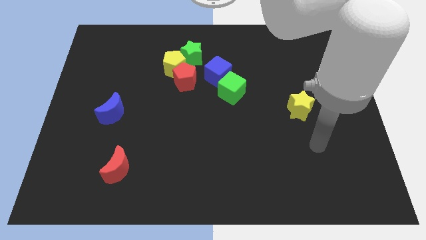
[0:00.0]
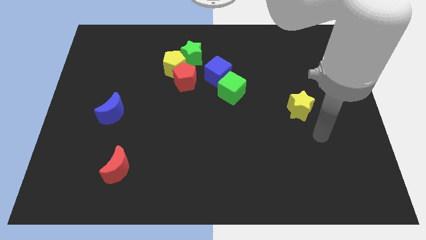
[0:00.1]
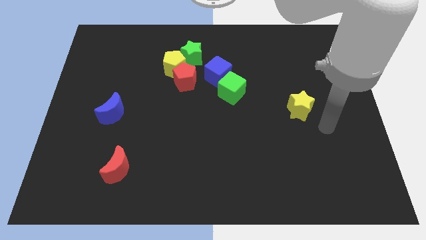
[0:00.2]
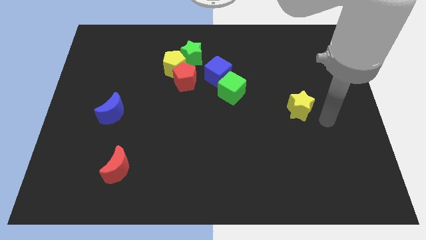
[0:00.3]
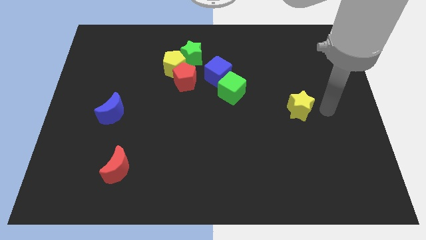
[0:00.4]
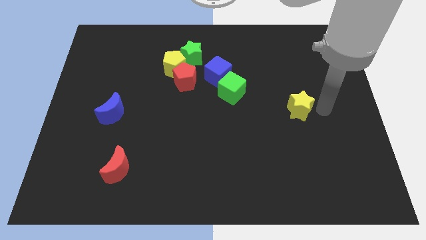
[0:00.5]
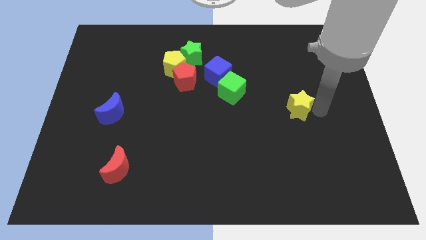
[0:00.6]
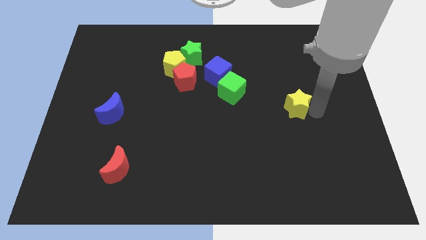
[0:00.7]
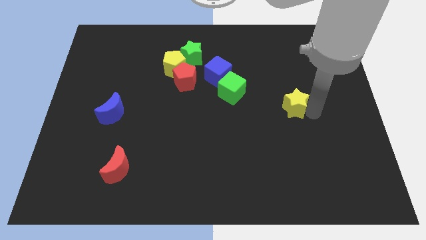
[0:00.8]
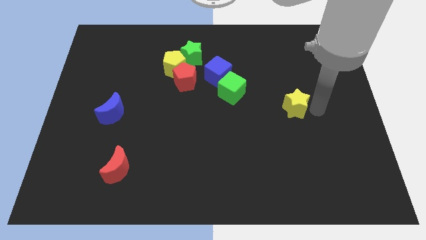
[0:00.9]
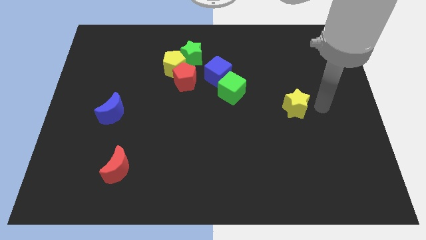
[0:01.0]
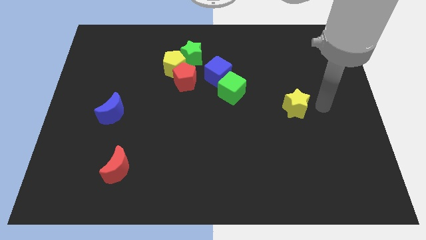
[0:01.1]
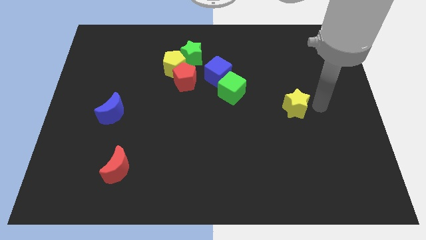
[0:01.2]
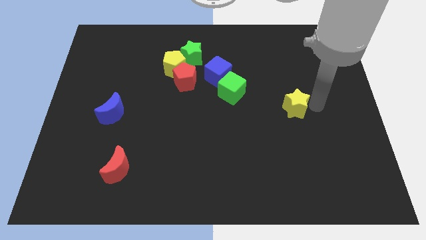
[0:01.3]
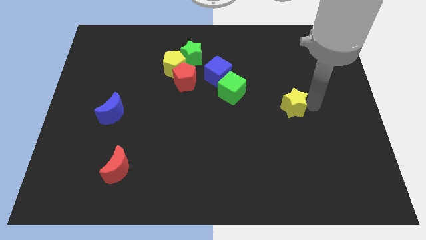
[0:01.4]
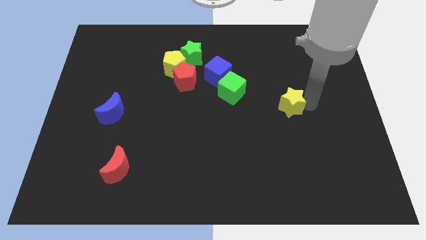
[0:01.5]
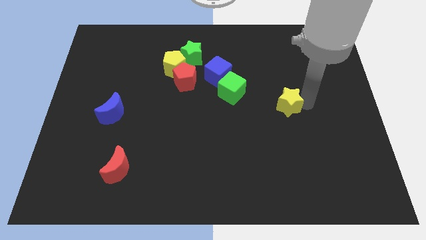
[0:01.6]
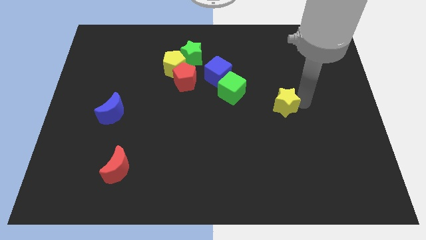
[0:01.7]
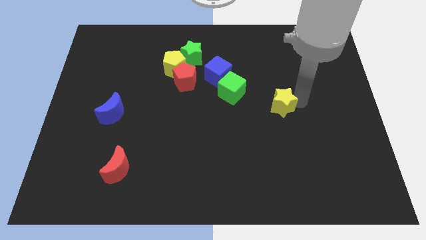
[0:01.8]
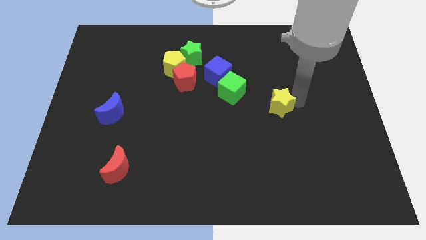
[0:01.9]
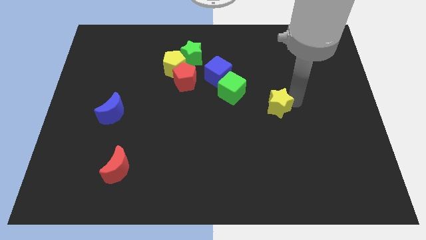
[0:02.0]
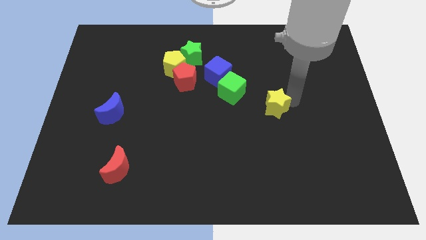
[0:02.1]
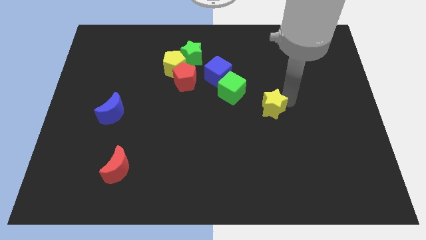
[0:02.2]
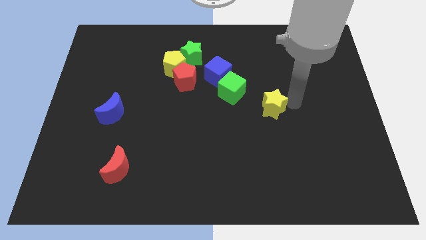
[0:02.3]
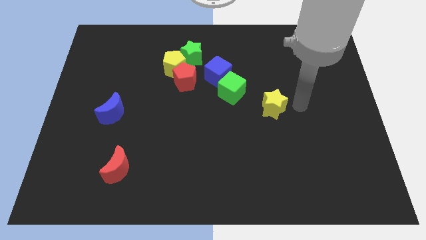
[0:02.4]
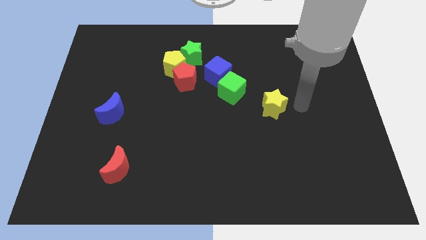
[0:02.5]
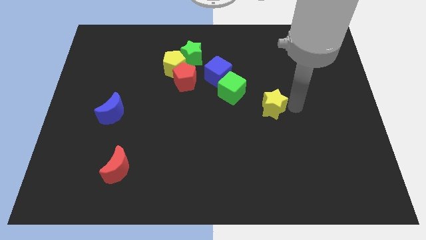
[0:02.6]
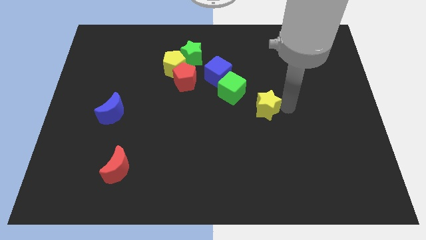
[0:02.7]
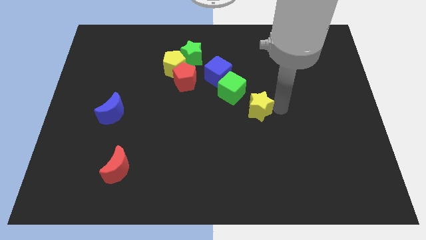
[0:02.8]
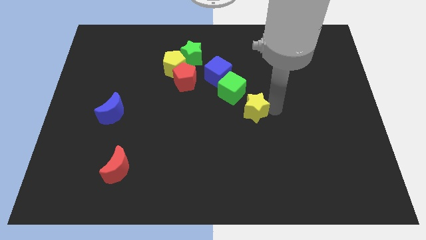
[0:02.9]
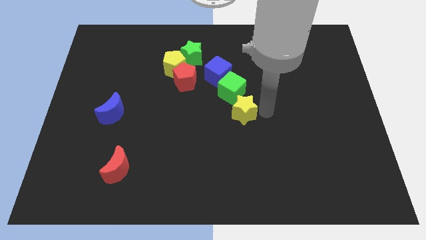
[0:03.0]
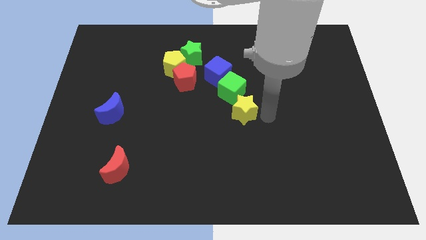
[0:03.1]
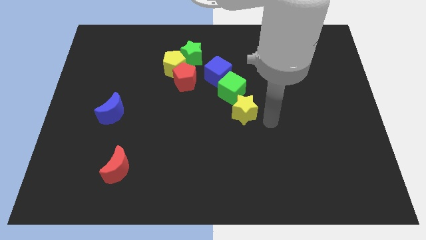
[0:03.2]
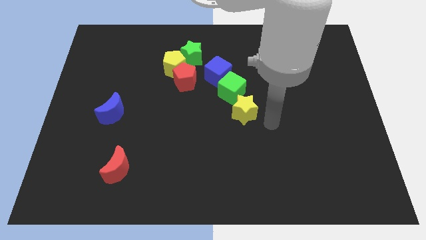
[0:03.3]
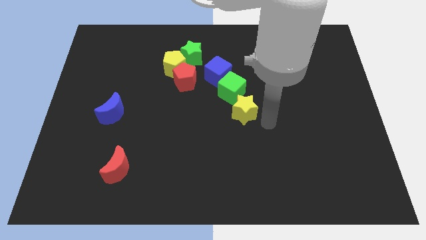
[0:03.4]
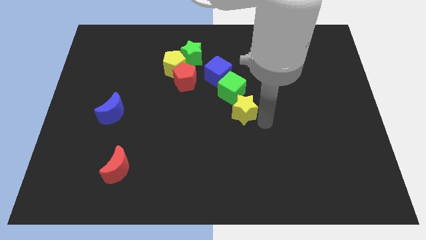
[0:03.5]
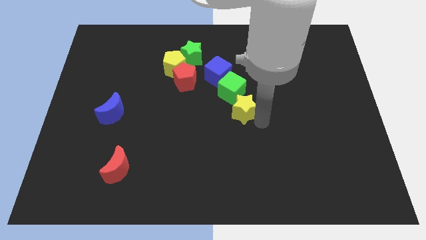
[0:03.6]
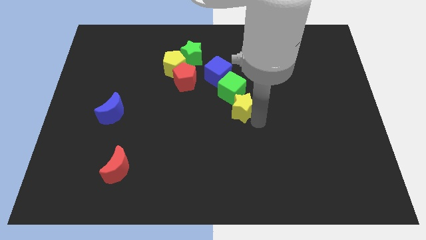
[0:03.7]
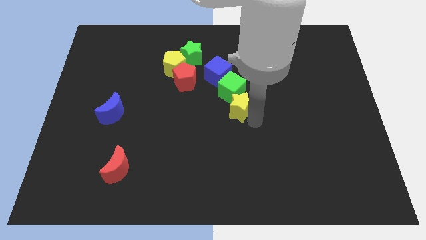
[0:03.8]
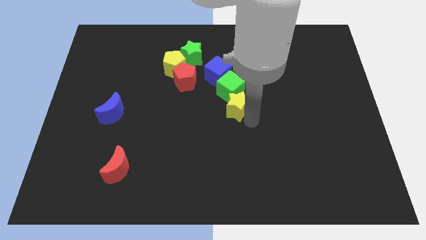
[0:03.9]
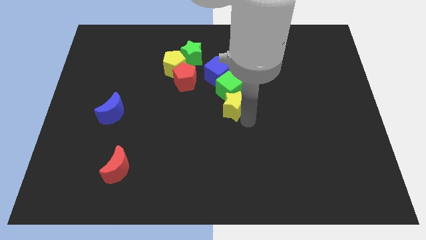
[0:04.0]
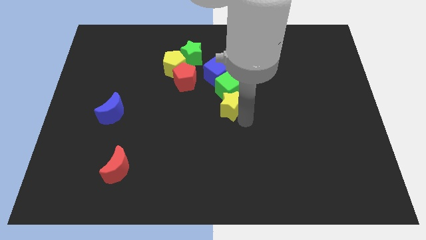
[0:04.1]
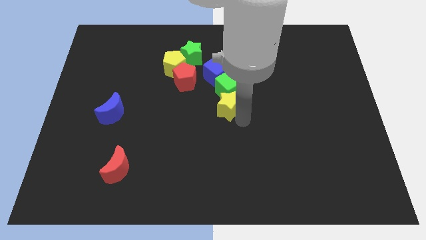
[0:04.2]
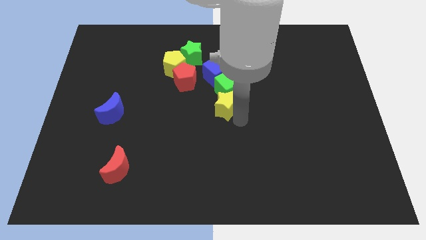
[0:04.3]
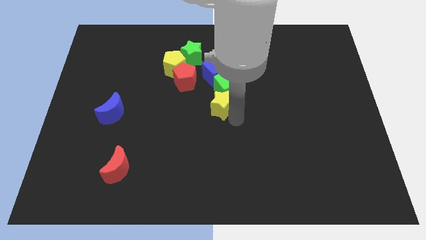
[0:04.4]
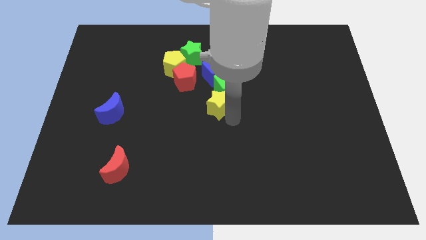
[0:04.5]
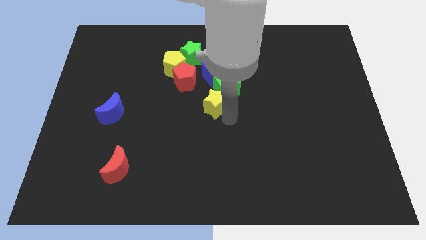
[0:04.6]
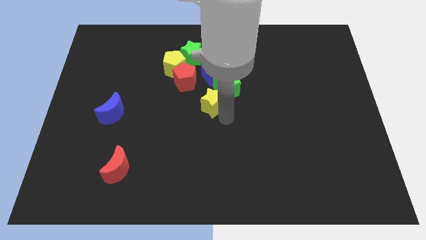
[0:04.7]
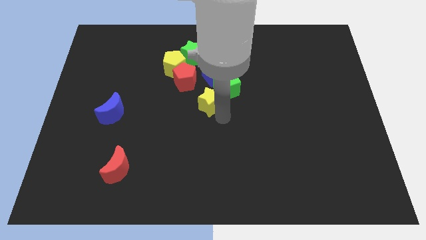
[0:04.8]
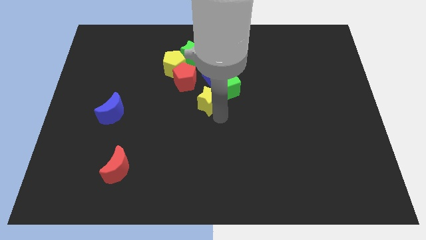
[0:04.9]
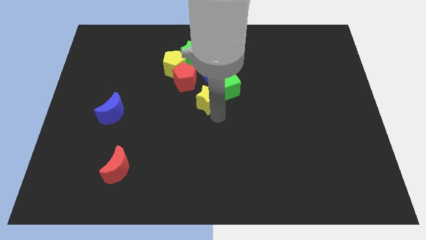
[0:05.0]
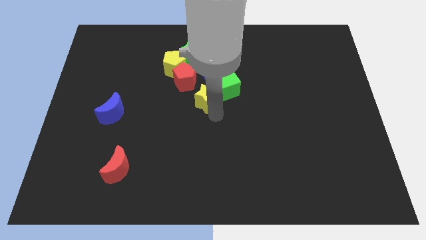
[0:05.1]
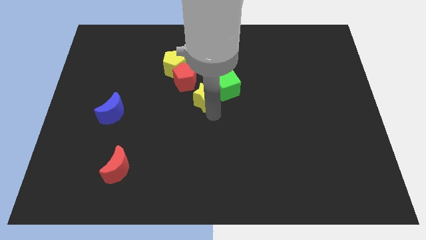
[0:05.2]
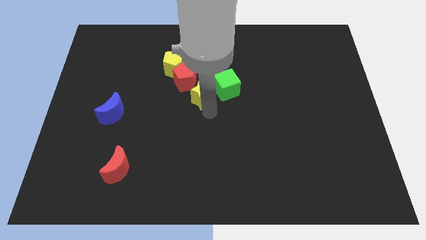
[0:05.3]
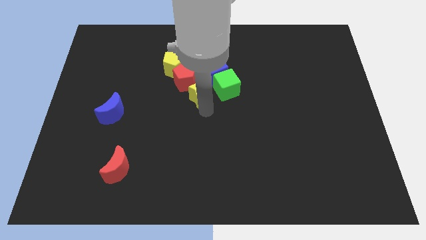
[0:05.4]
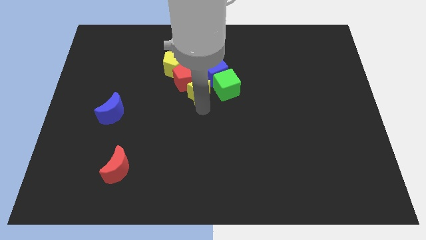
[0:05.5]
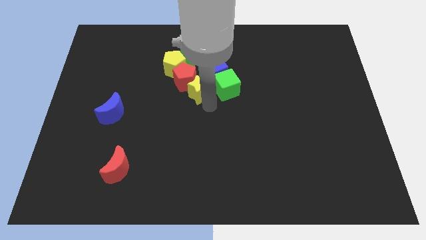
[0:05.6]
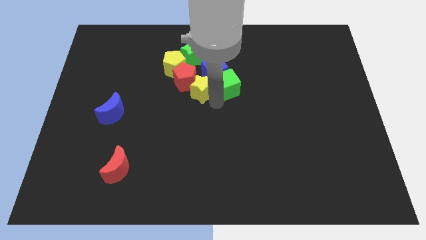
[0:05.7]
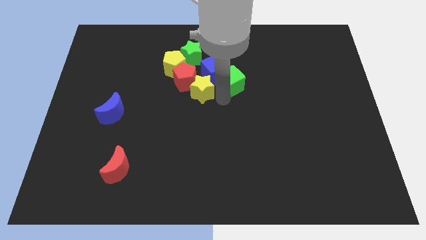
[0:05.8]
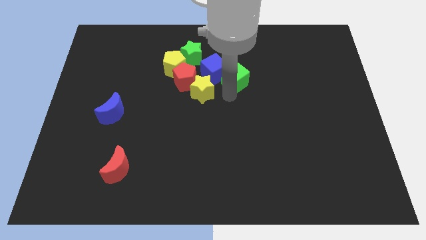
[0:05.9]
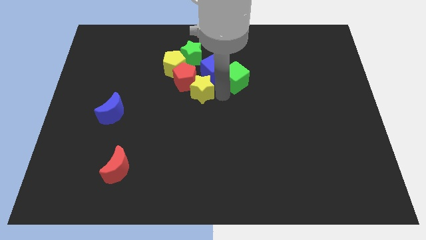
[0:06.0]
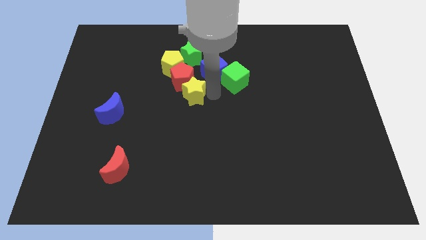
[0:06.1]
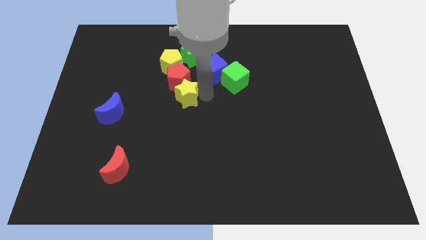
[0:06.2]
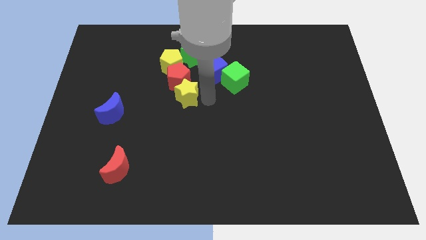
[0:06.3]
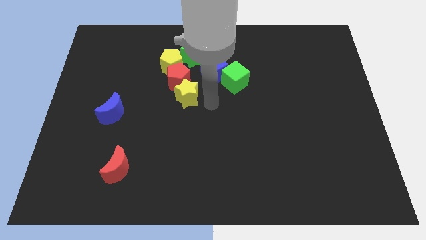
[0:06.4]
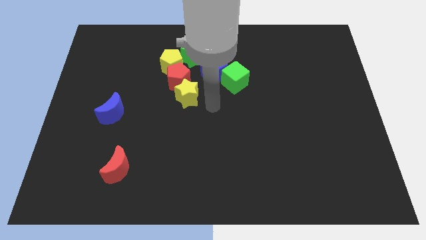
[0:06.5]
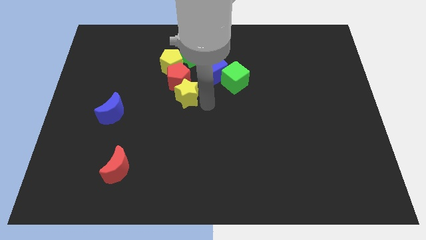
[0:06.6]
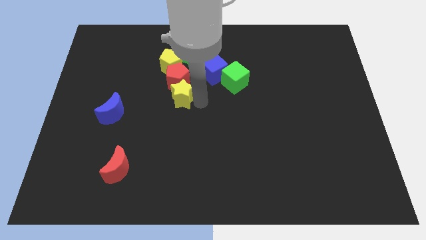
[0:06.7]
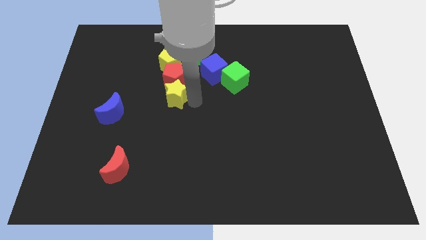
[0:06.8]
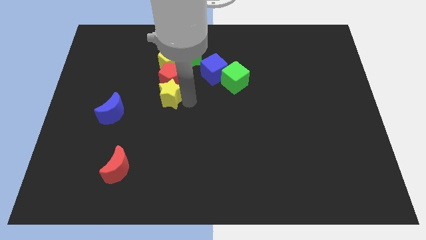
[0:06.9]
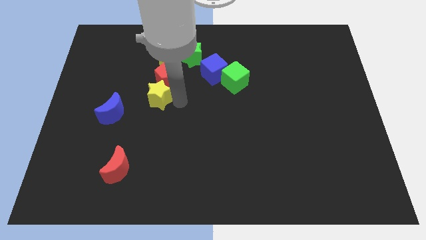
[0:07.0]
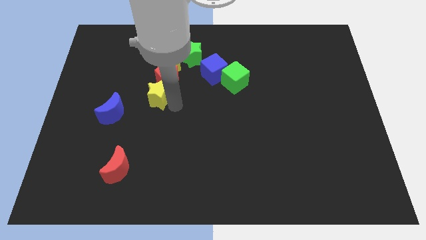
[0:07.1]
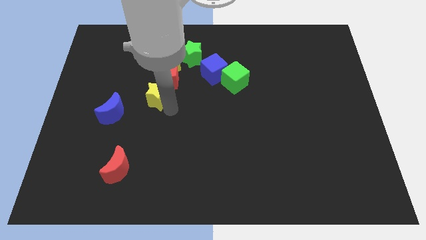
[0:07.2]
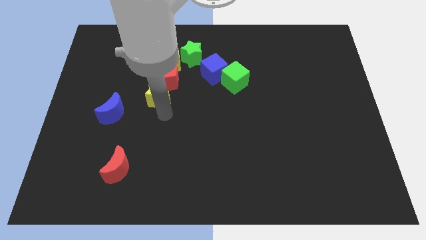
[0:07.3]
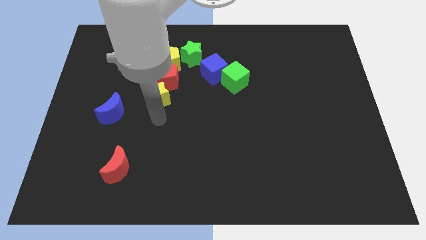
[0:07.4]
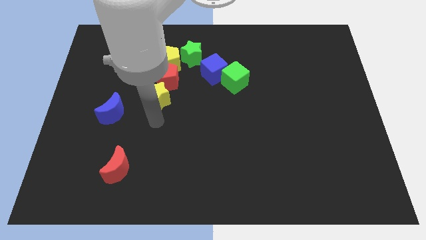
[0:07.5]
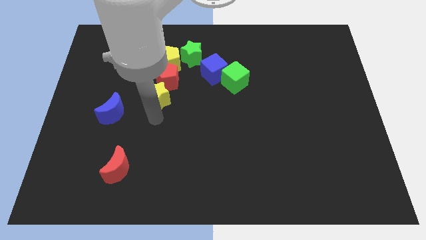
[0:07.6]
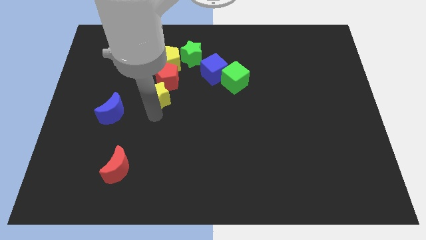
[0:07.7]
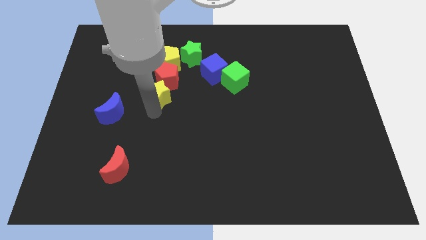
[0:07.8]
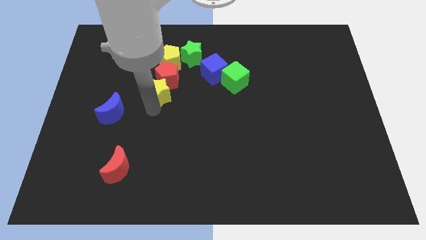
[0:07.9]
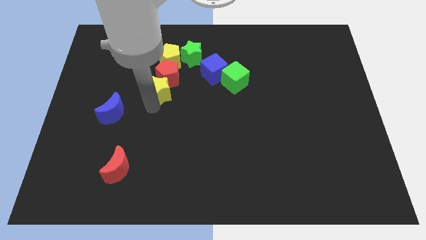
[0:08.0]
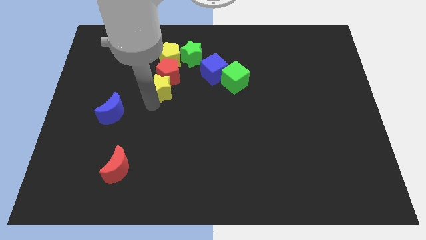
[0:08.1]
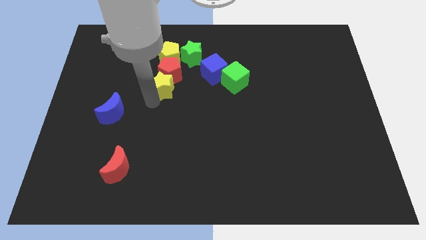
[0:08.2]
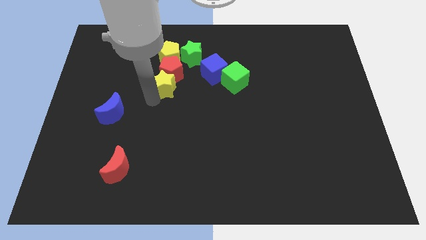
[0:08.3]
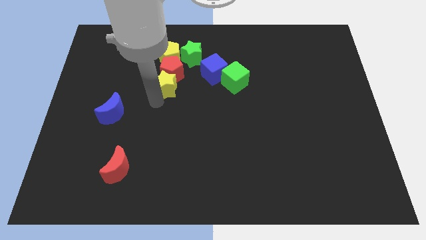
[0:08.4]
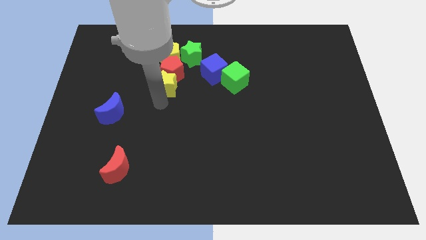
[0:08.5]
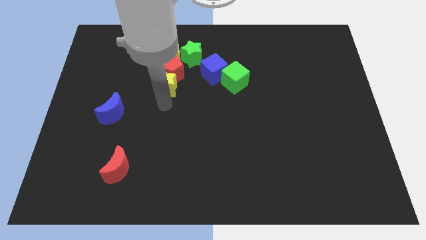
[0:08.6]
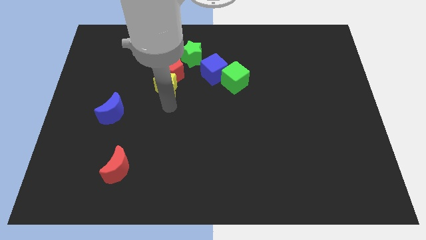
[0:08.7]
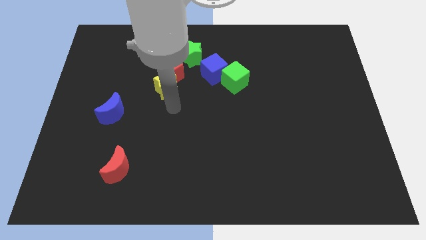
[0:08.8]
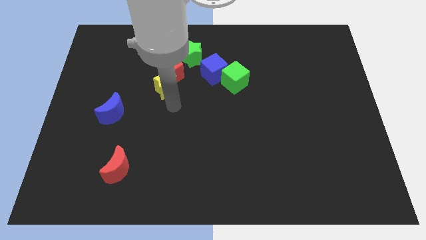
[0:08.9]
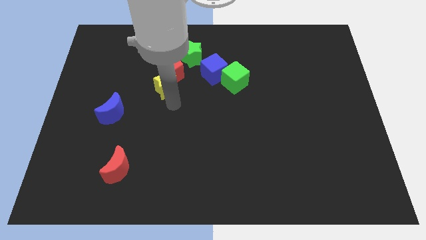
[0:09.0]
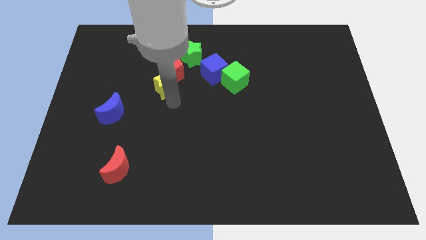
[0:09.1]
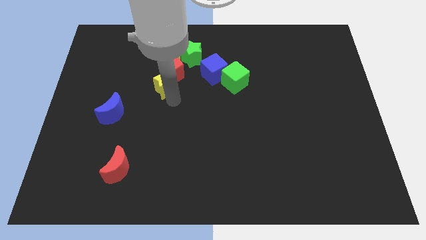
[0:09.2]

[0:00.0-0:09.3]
push the yellow star just left of the blue cube
